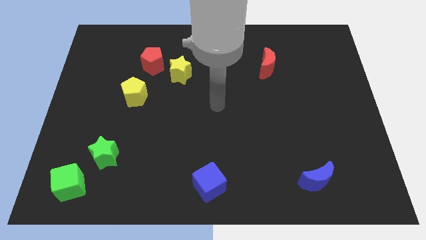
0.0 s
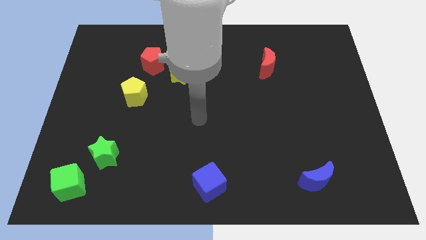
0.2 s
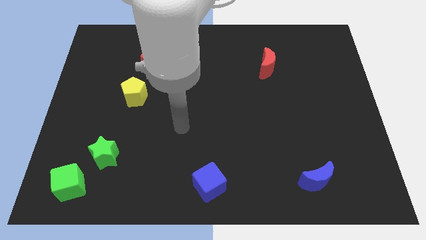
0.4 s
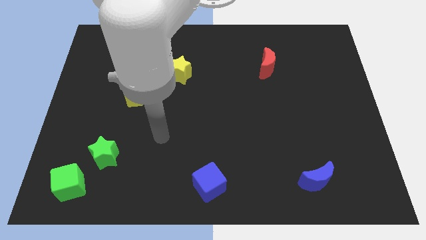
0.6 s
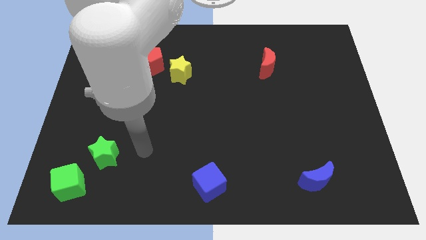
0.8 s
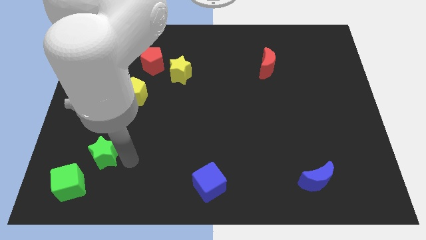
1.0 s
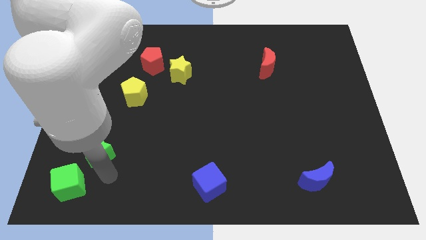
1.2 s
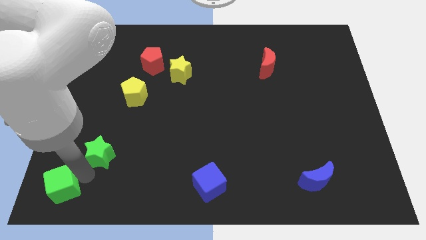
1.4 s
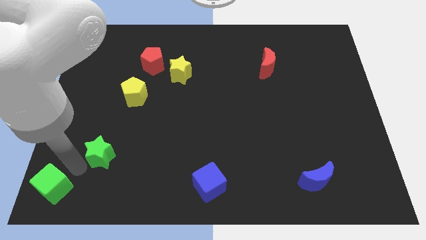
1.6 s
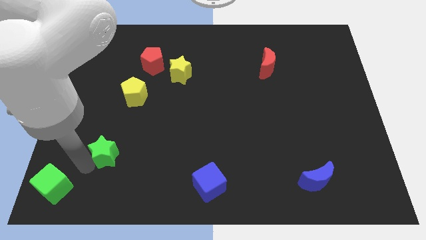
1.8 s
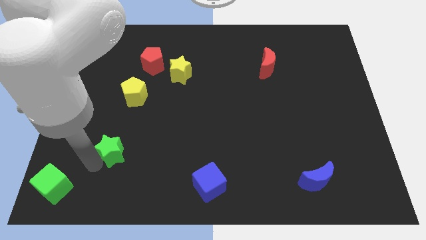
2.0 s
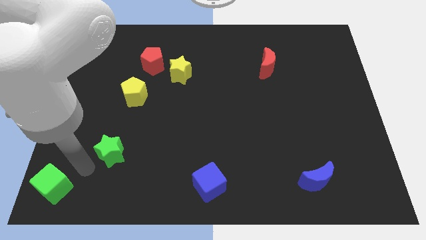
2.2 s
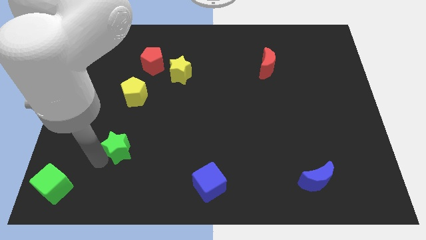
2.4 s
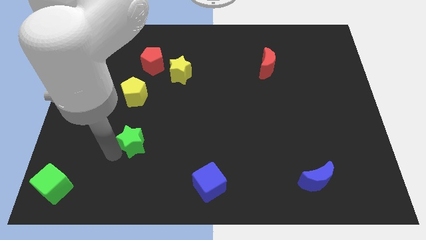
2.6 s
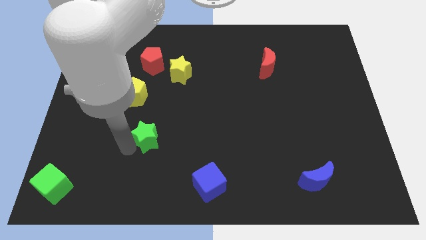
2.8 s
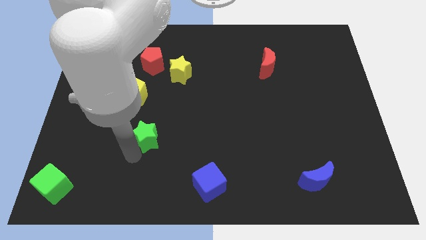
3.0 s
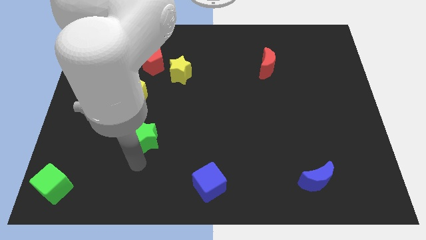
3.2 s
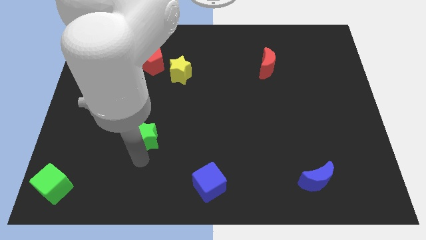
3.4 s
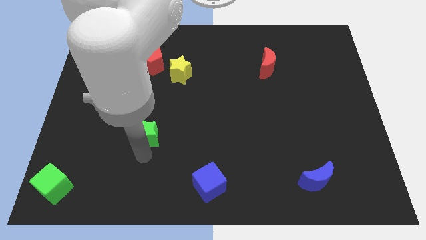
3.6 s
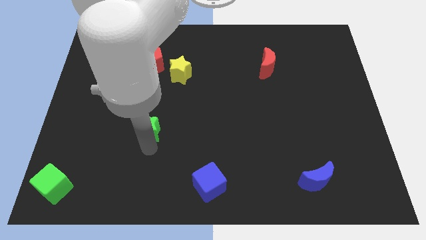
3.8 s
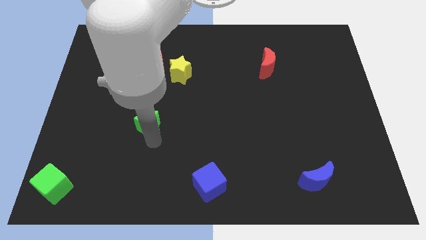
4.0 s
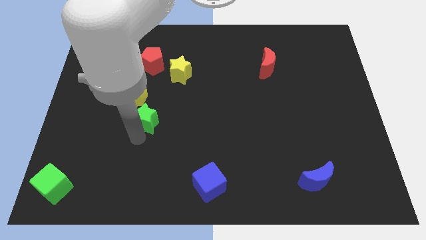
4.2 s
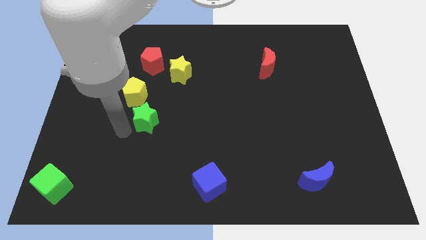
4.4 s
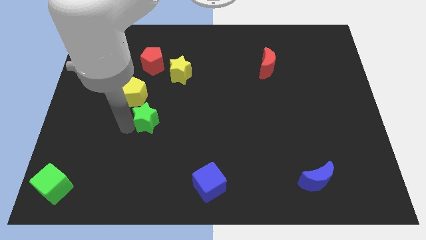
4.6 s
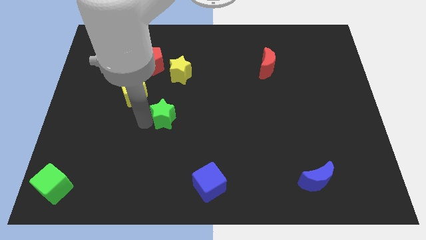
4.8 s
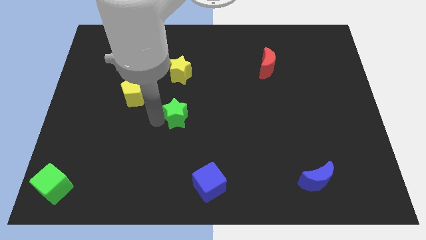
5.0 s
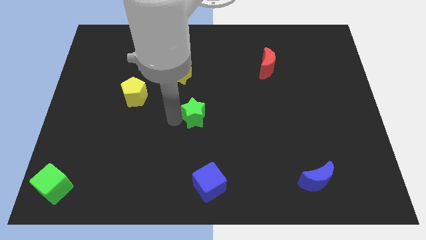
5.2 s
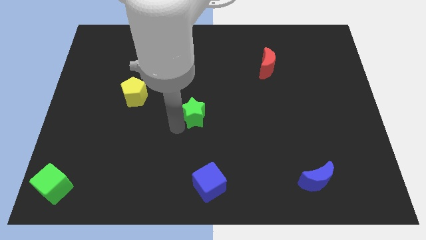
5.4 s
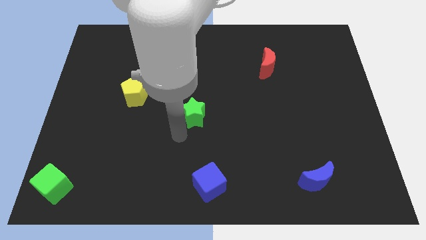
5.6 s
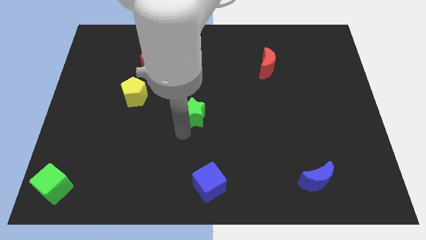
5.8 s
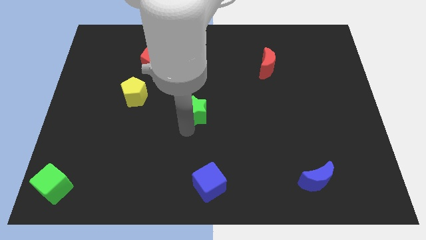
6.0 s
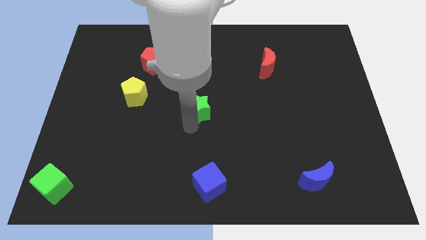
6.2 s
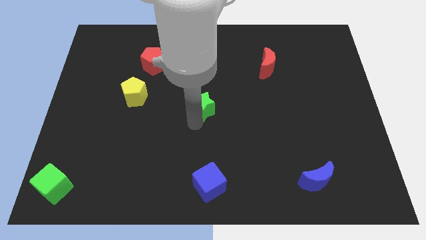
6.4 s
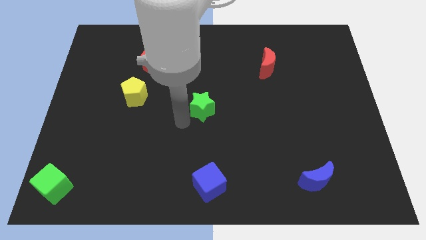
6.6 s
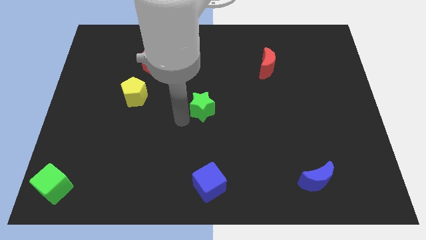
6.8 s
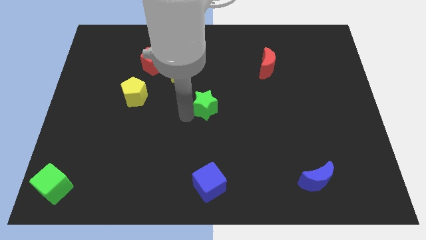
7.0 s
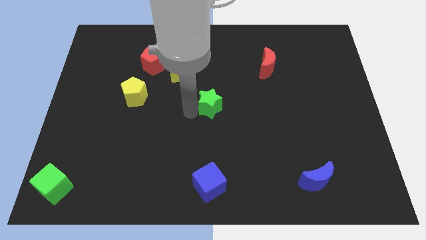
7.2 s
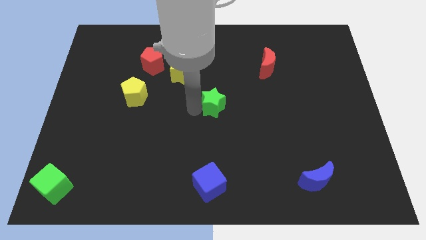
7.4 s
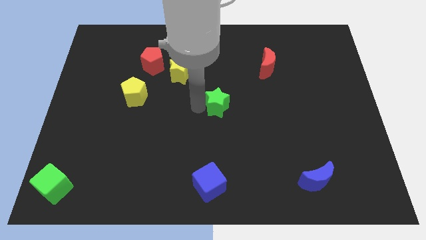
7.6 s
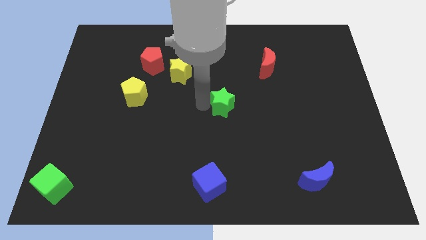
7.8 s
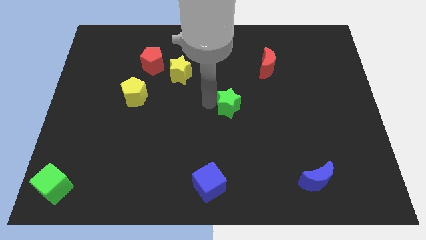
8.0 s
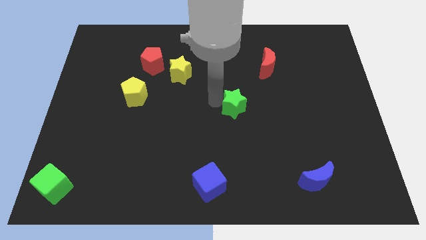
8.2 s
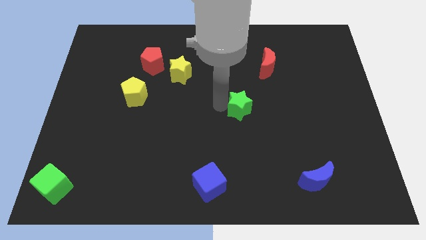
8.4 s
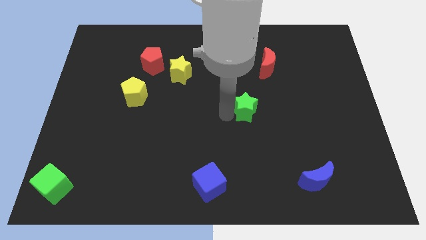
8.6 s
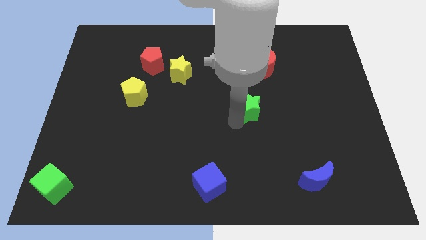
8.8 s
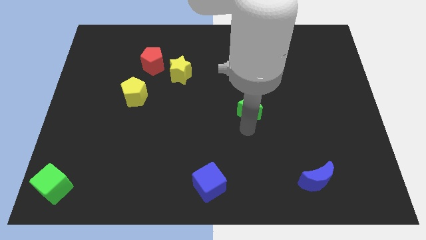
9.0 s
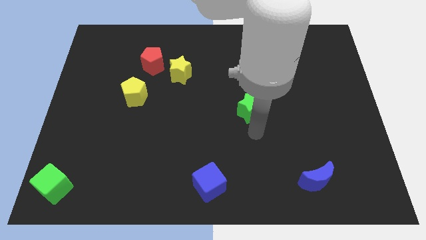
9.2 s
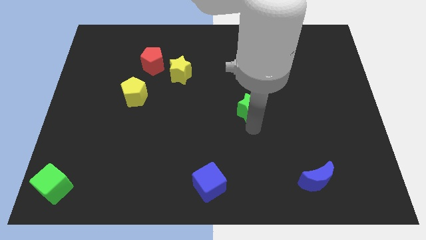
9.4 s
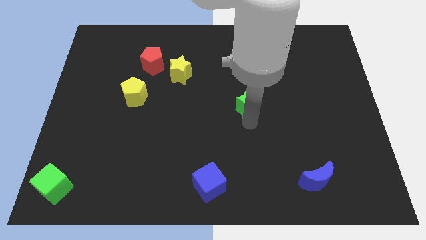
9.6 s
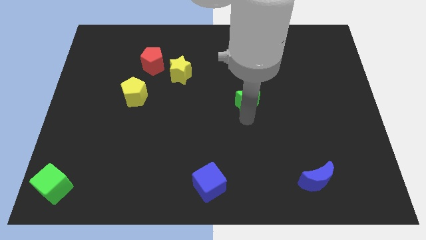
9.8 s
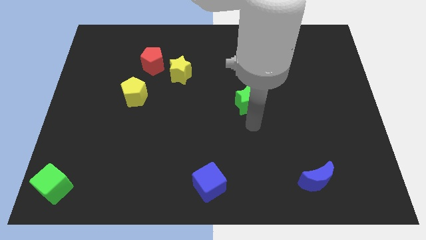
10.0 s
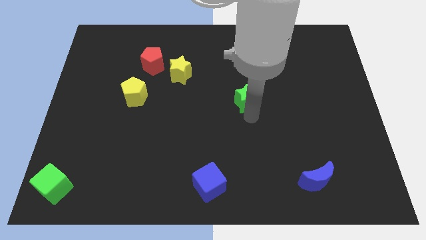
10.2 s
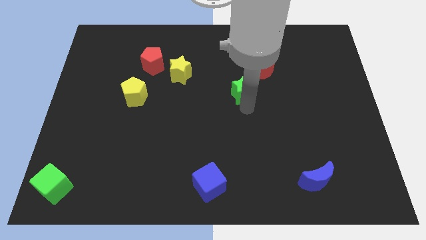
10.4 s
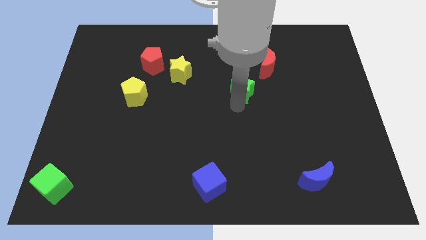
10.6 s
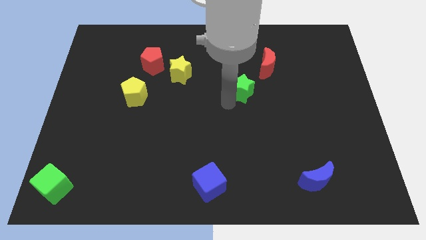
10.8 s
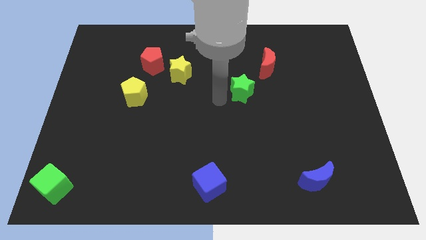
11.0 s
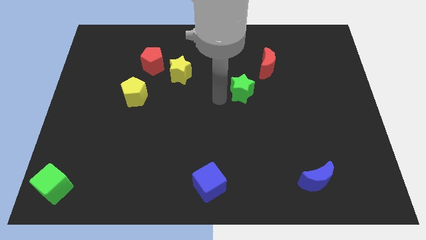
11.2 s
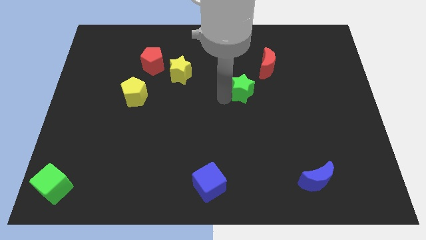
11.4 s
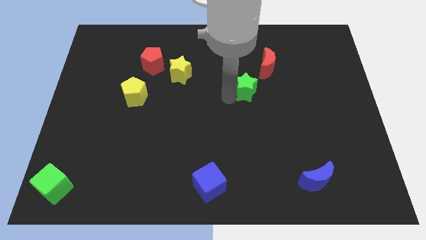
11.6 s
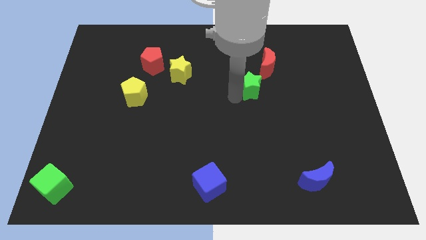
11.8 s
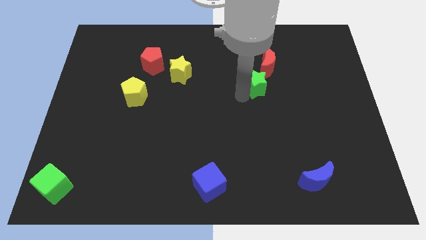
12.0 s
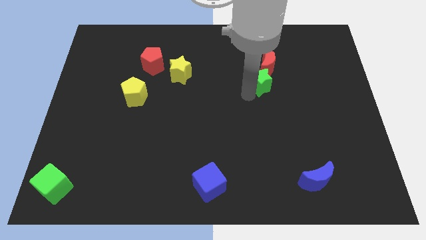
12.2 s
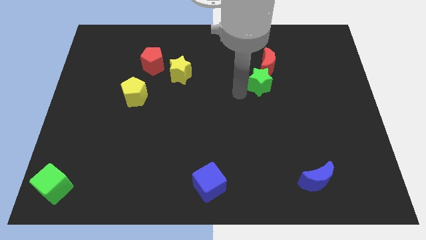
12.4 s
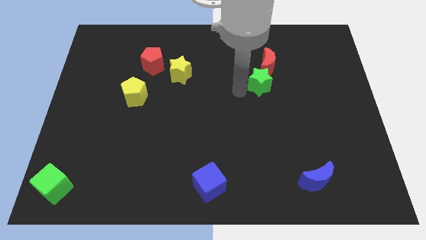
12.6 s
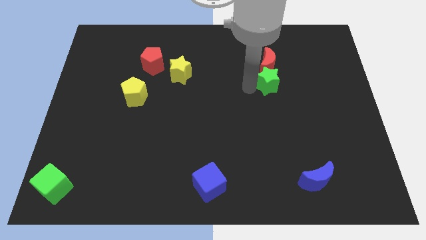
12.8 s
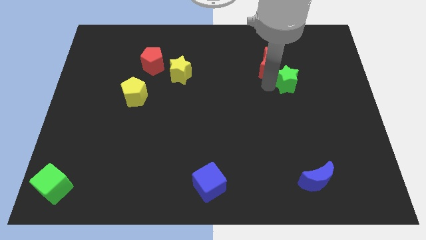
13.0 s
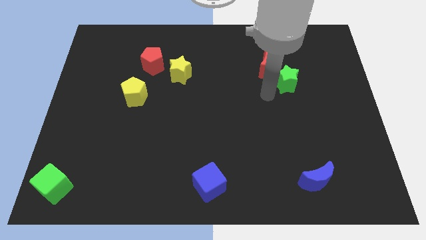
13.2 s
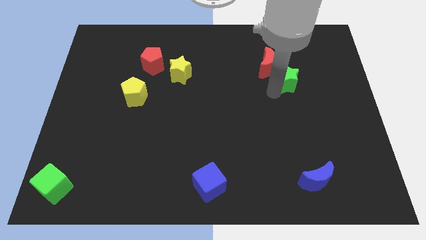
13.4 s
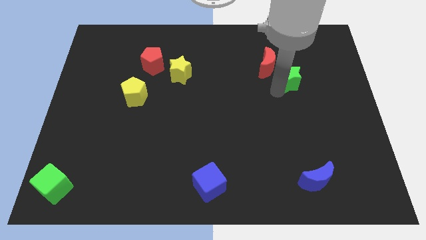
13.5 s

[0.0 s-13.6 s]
move the green star just right of the red moon
